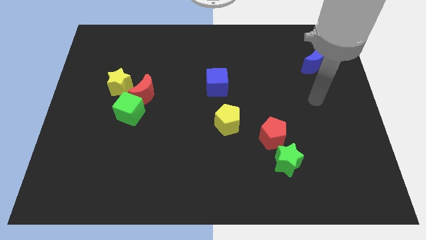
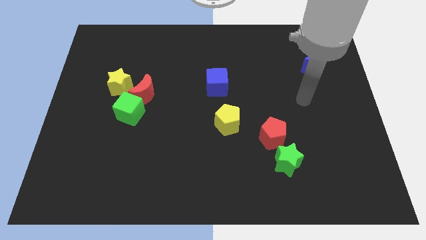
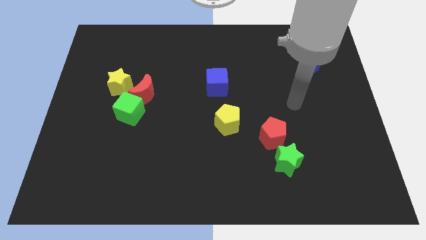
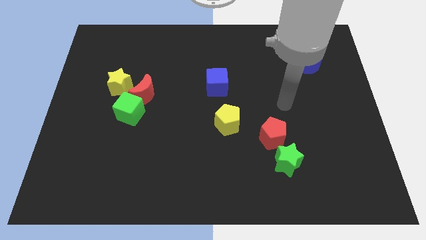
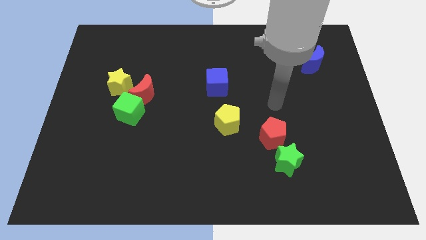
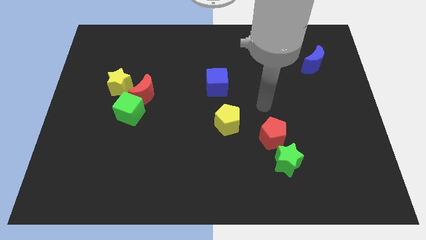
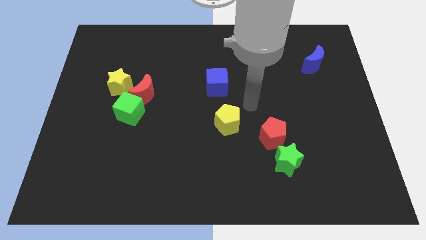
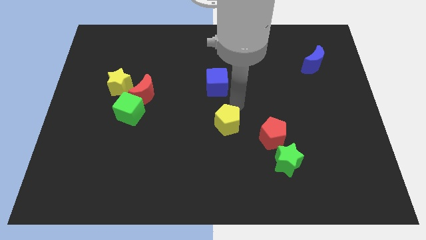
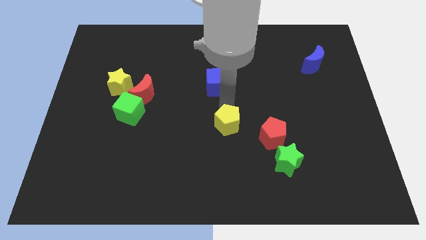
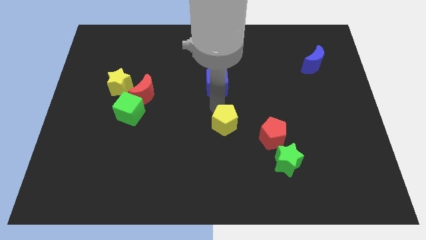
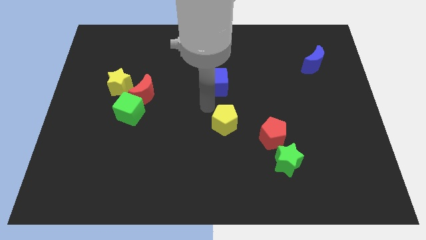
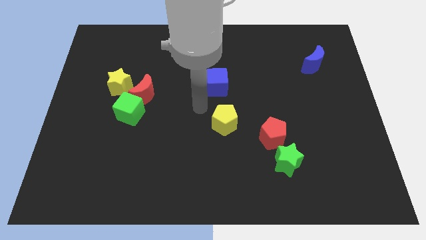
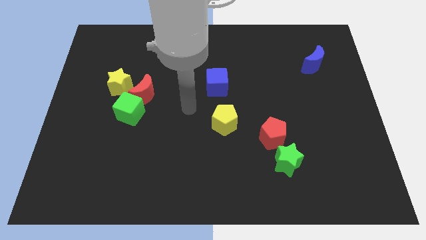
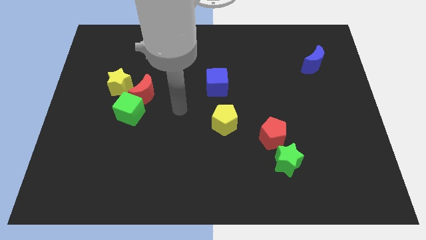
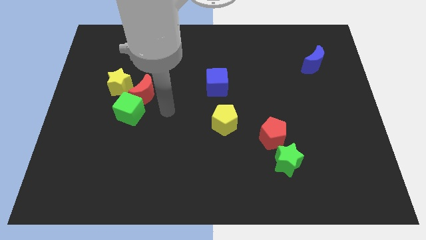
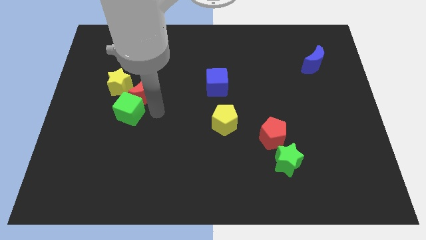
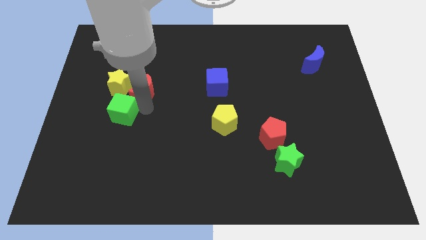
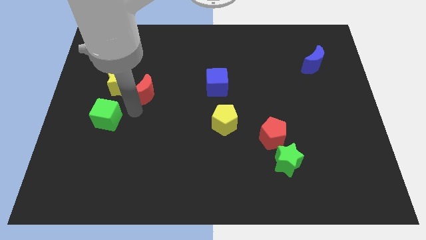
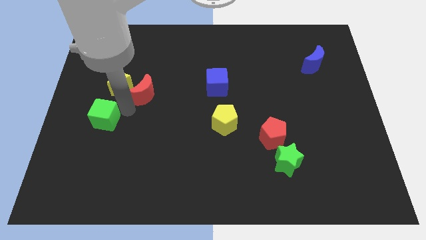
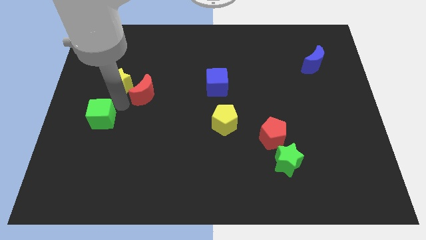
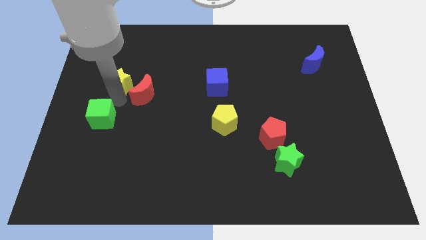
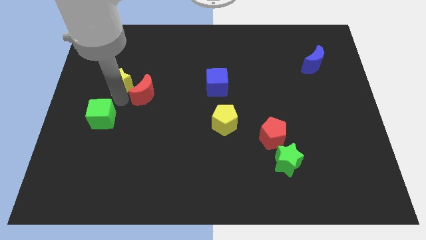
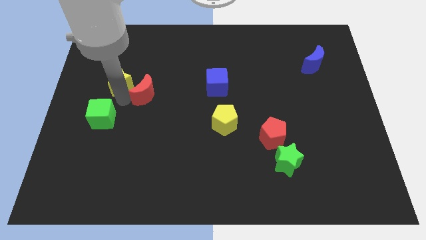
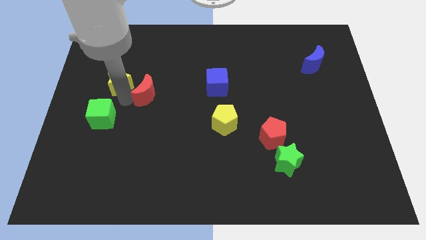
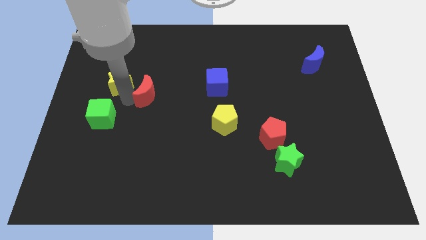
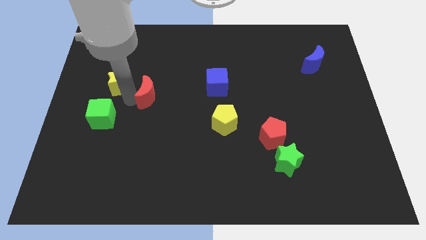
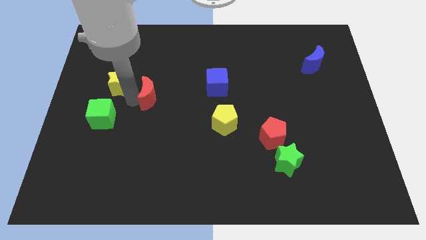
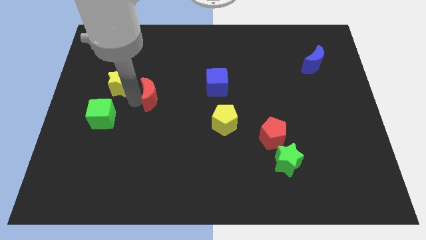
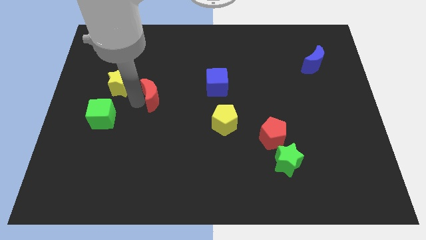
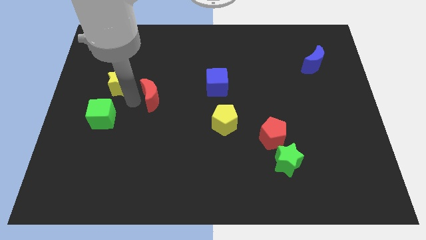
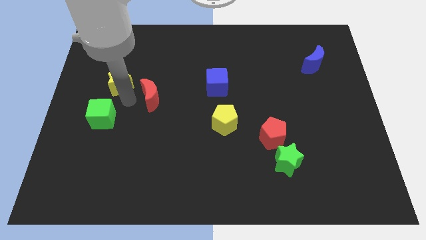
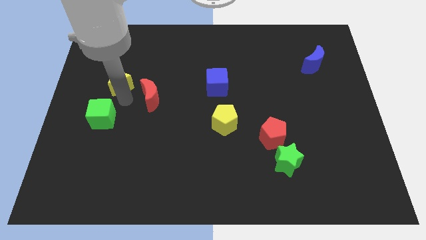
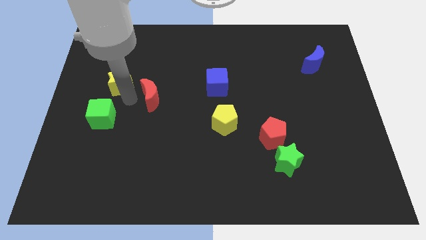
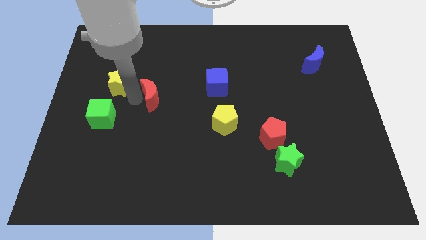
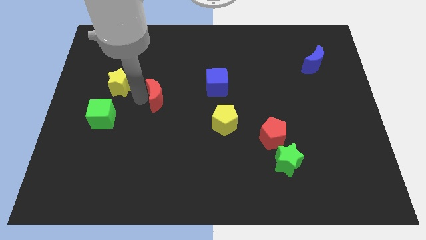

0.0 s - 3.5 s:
pull the red moon apart from the green cube and yellow star

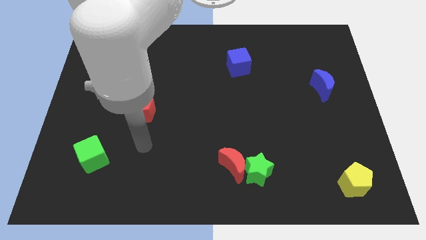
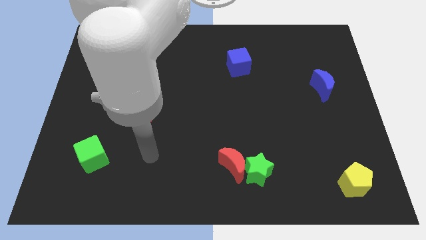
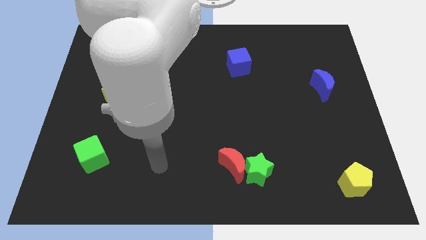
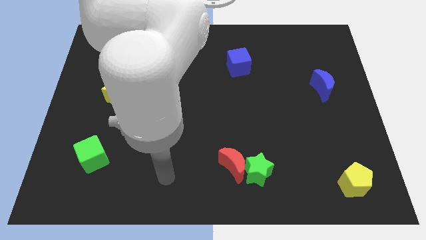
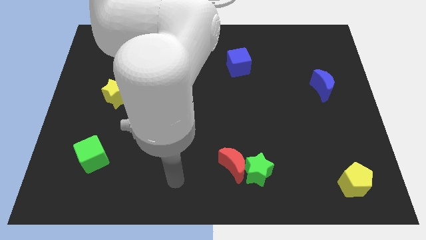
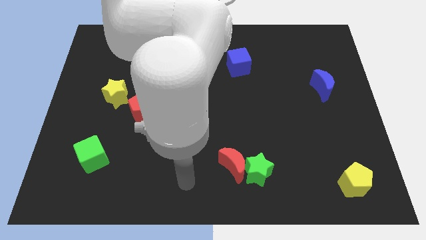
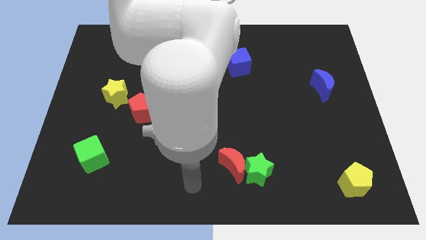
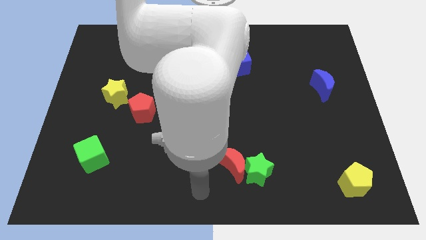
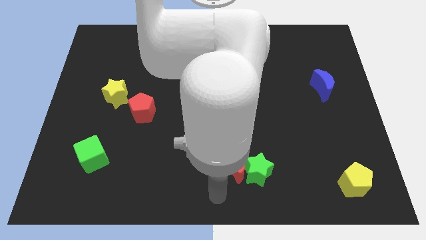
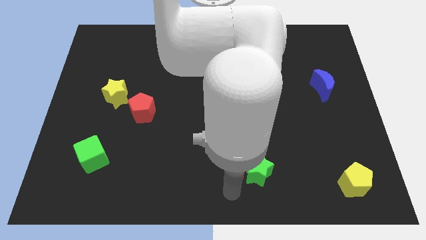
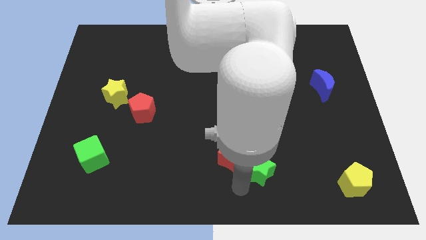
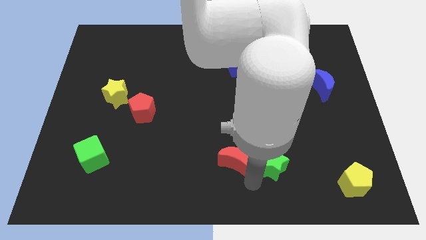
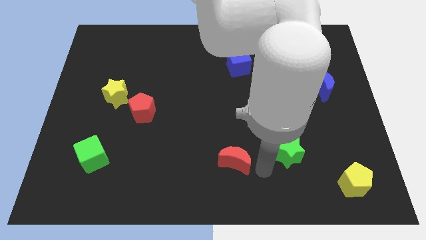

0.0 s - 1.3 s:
separate the red moon from the green star

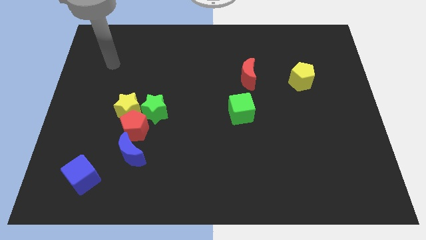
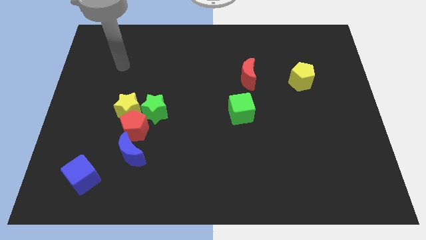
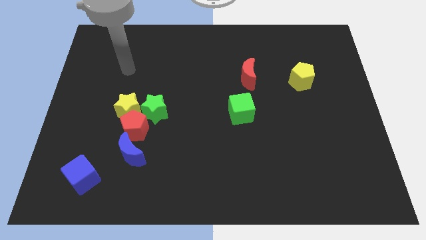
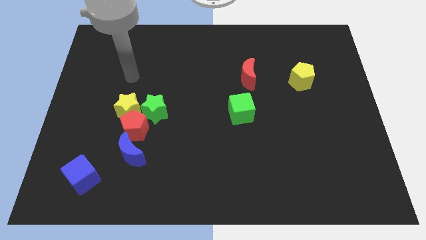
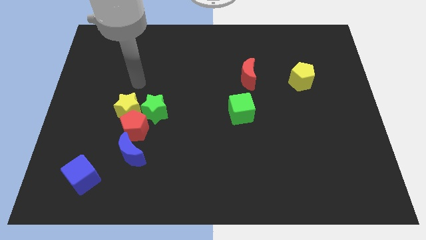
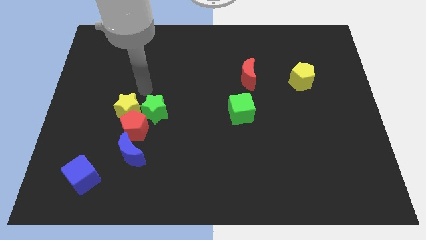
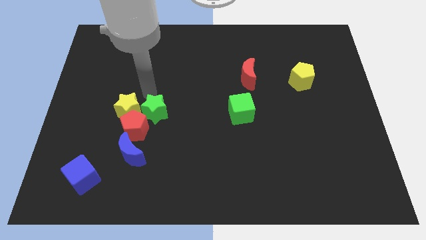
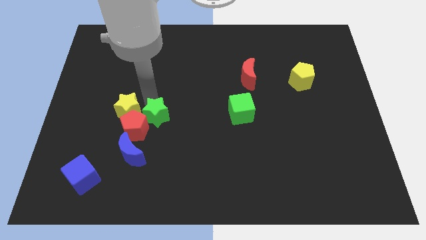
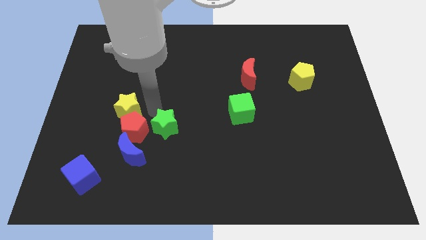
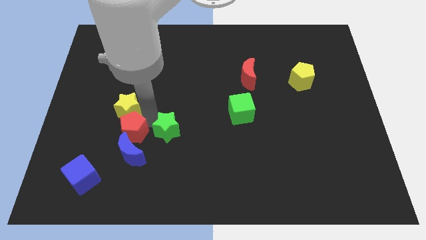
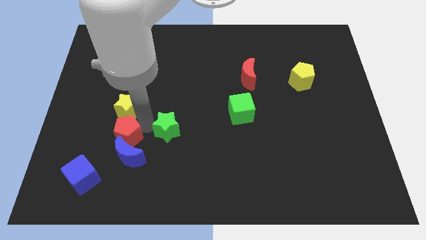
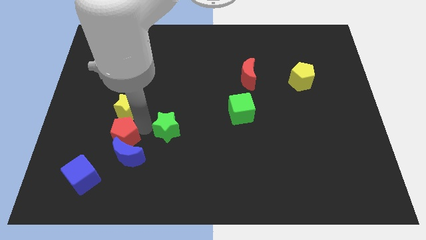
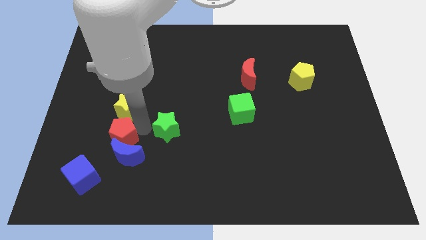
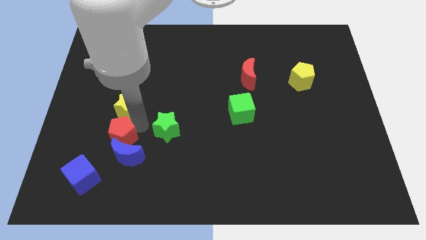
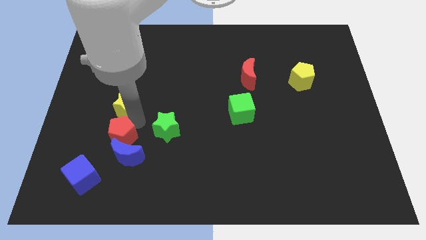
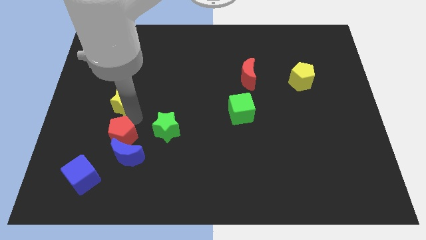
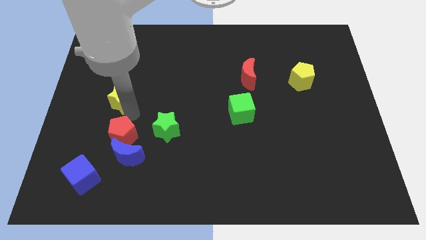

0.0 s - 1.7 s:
separate the yellow star from the red pentagon and green star

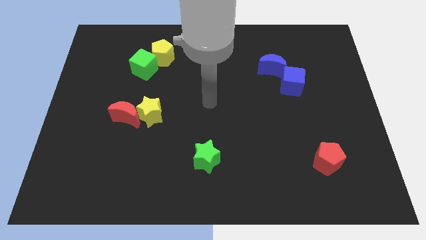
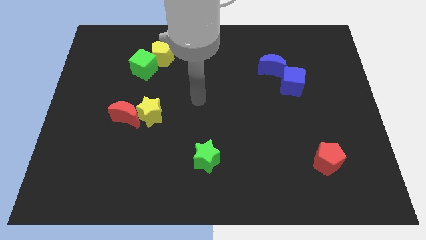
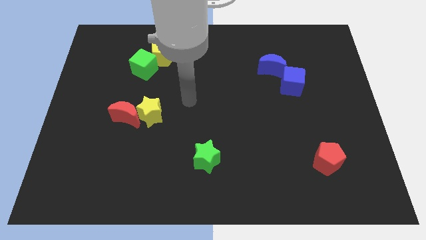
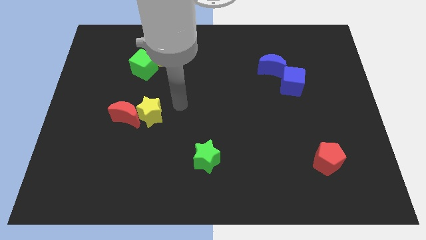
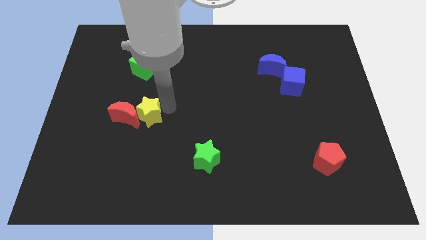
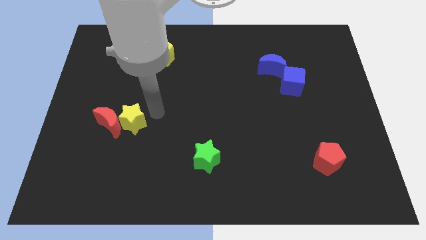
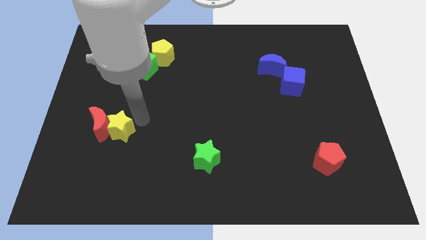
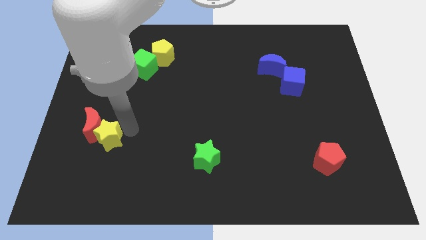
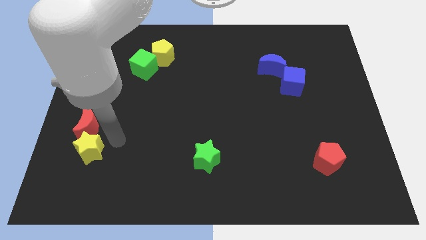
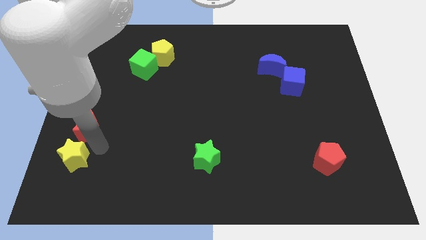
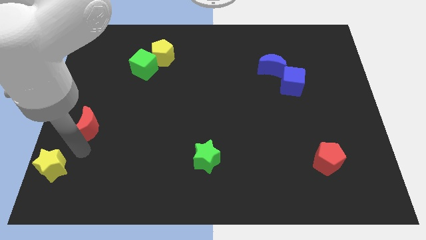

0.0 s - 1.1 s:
separate the red moon from the yellow star

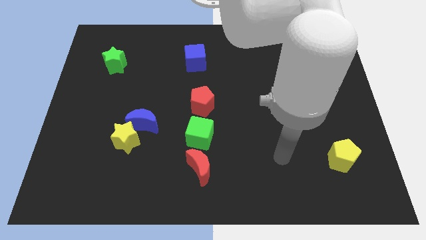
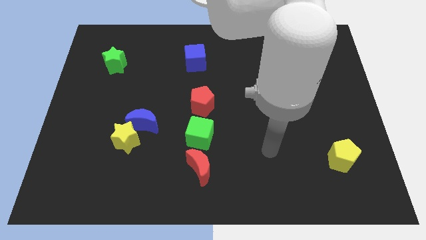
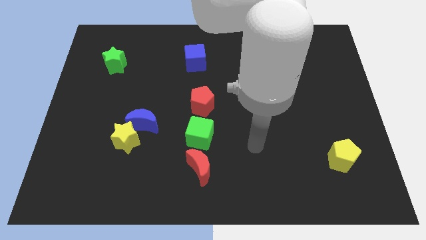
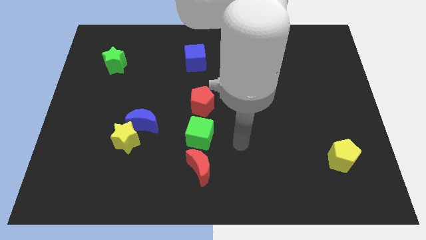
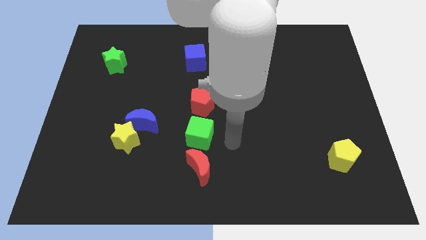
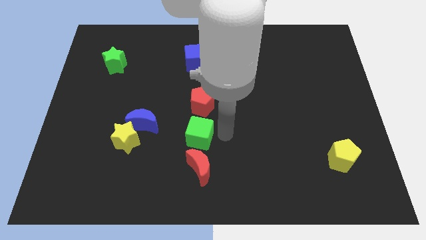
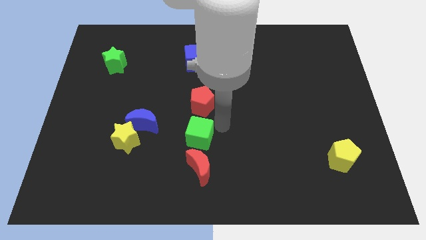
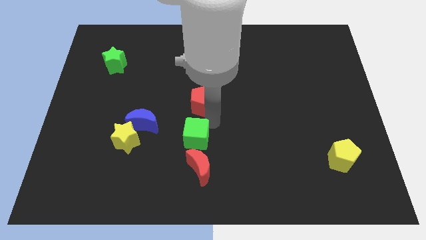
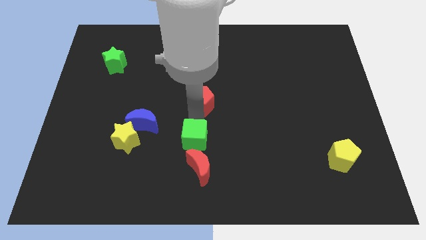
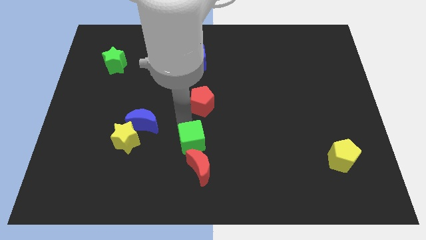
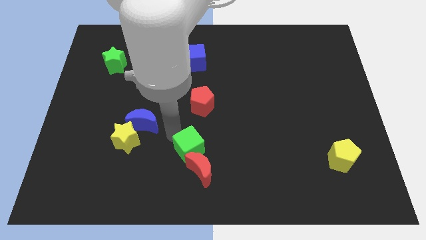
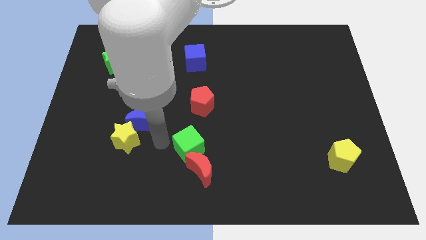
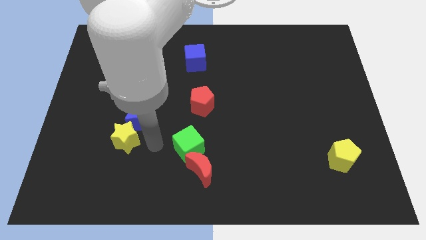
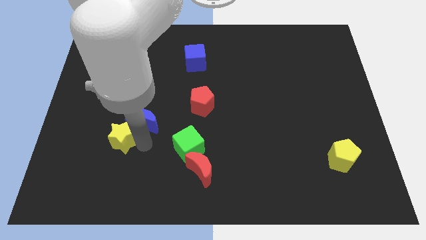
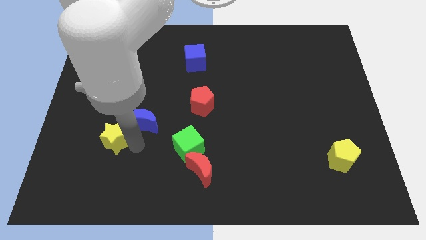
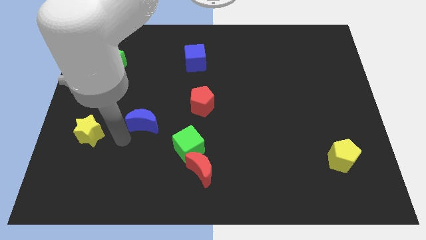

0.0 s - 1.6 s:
move the blue moon away from the yellow star

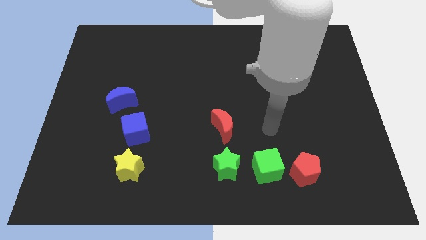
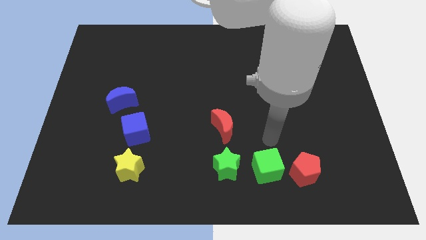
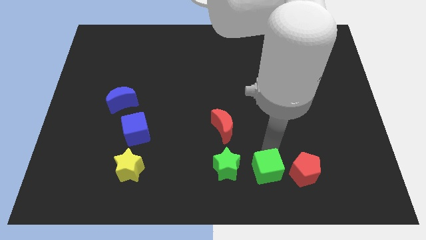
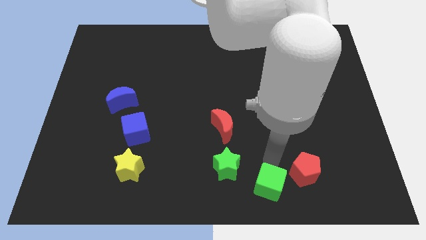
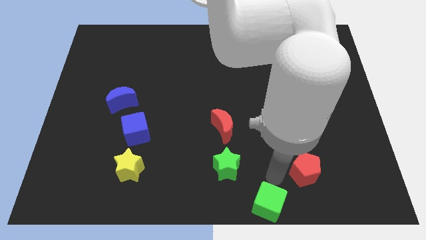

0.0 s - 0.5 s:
pull the red pentagon apart from the green cube
